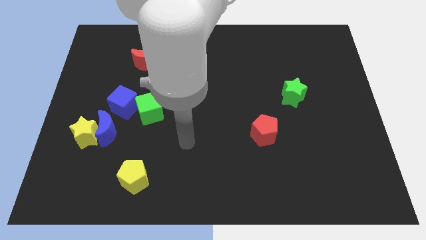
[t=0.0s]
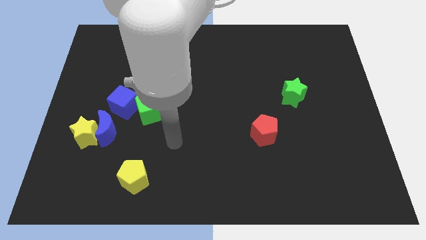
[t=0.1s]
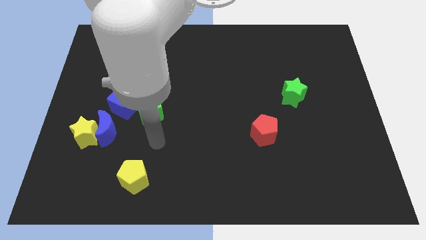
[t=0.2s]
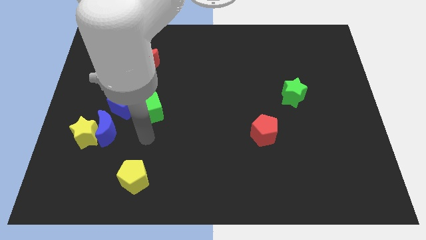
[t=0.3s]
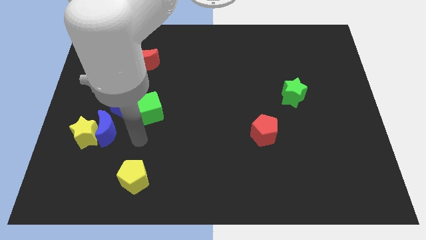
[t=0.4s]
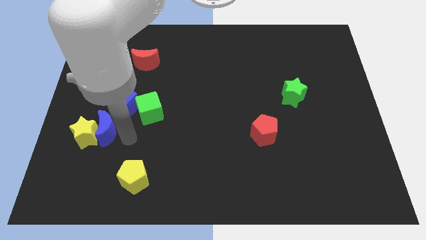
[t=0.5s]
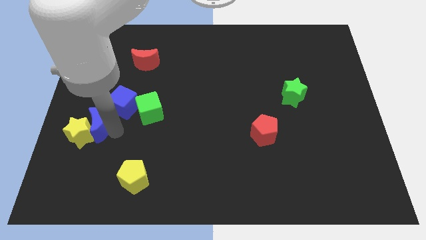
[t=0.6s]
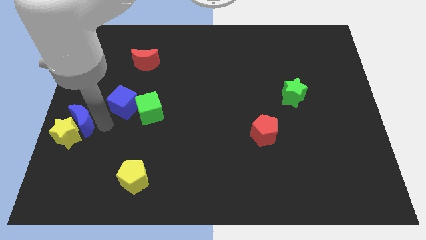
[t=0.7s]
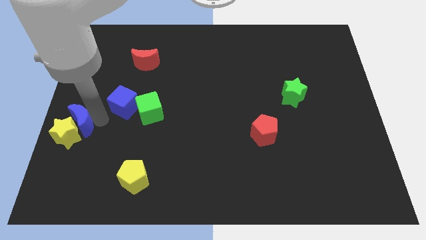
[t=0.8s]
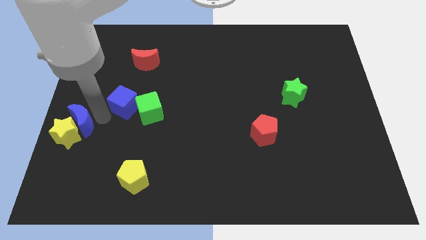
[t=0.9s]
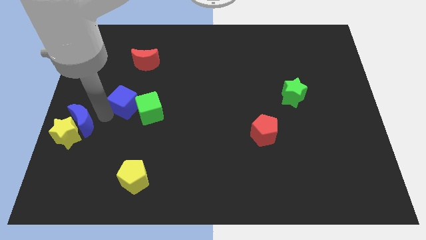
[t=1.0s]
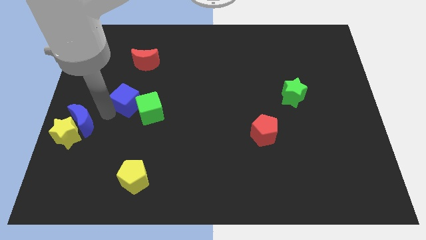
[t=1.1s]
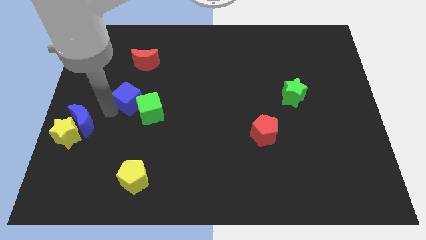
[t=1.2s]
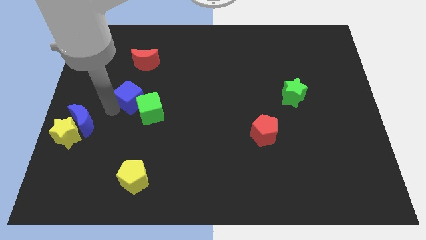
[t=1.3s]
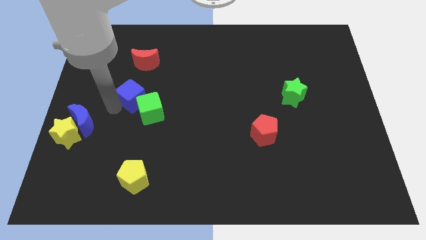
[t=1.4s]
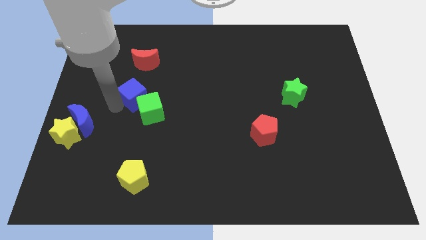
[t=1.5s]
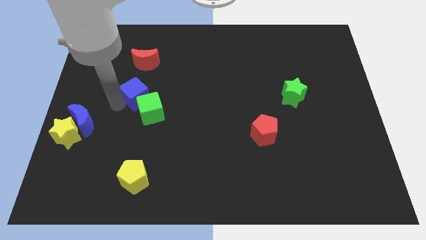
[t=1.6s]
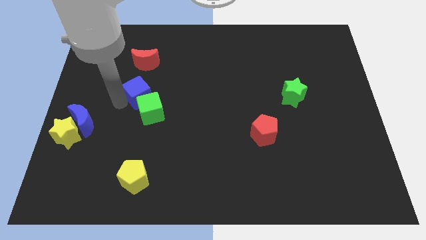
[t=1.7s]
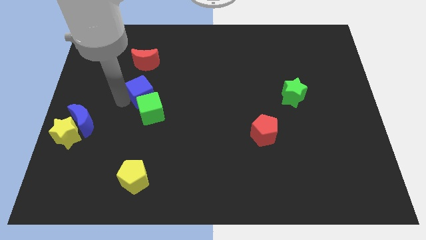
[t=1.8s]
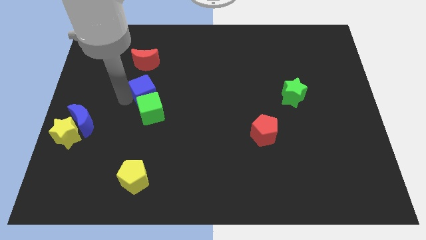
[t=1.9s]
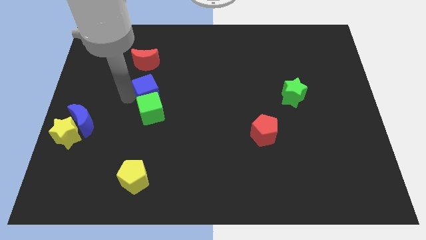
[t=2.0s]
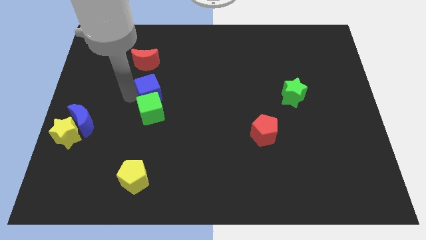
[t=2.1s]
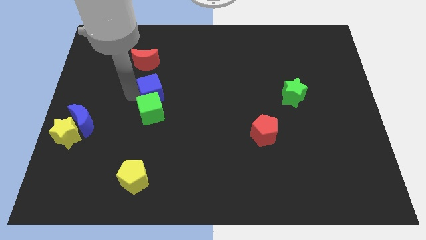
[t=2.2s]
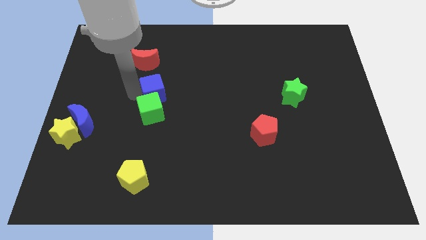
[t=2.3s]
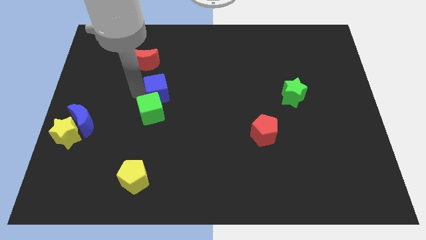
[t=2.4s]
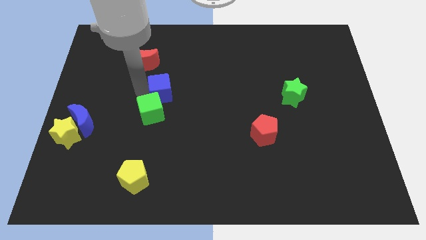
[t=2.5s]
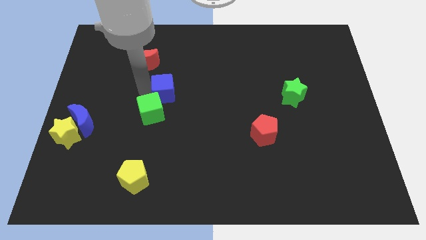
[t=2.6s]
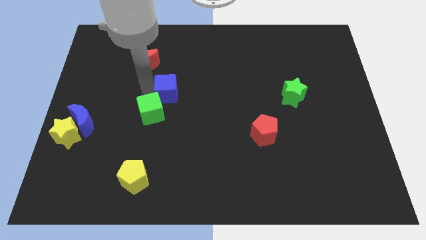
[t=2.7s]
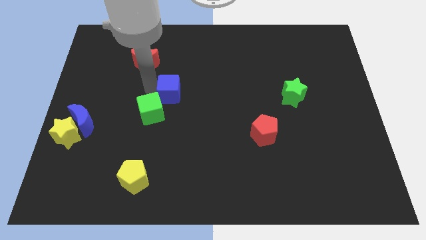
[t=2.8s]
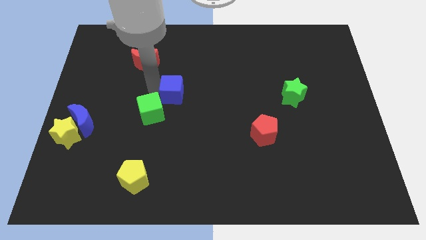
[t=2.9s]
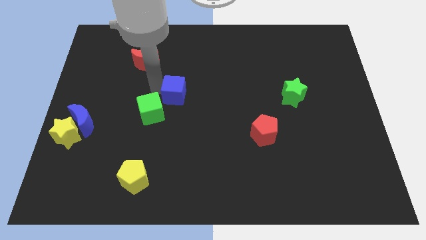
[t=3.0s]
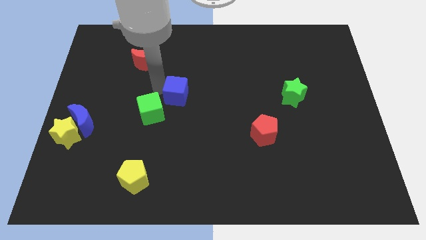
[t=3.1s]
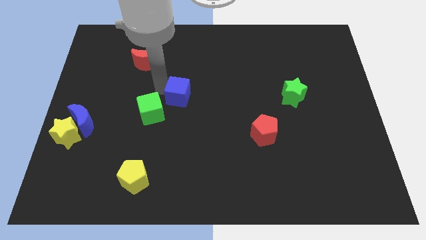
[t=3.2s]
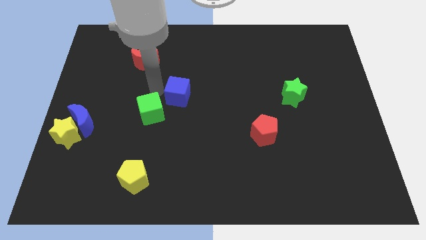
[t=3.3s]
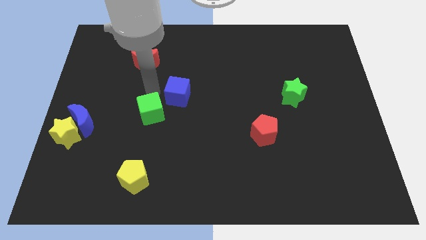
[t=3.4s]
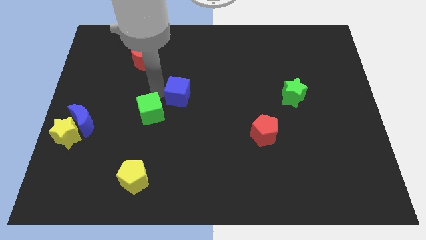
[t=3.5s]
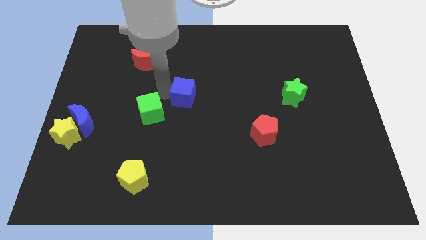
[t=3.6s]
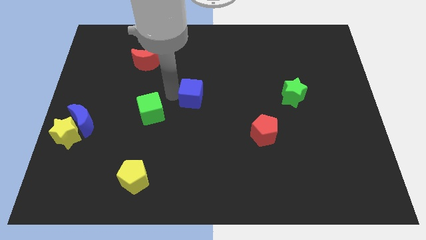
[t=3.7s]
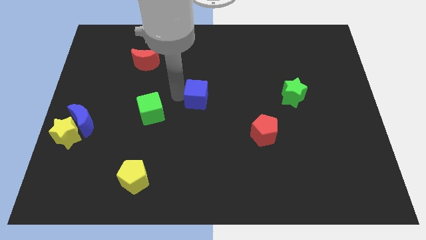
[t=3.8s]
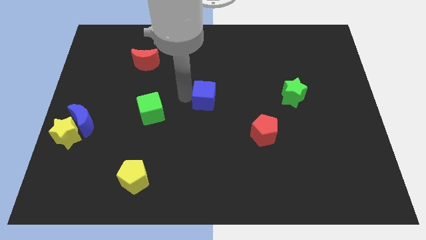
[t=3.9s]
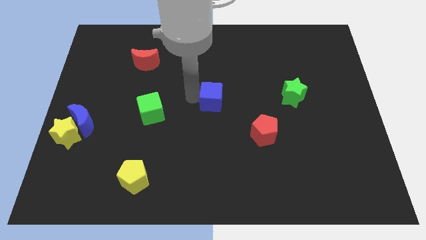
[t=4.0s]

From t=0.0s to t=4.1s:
move the blue cube right

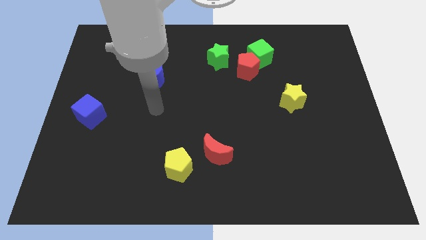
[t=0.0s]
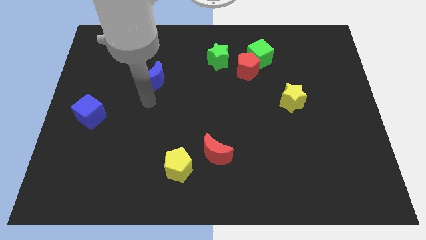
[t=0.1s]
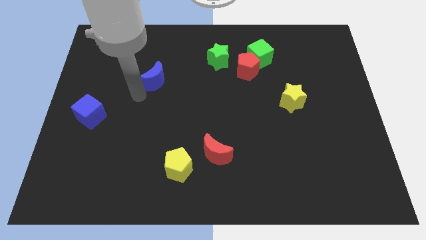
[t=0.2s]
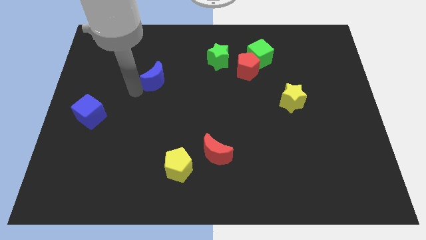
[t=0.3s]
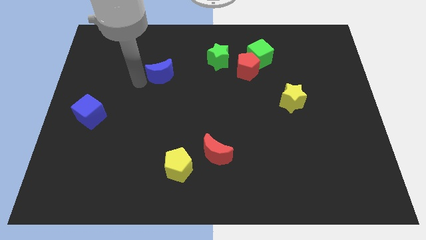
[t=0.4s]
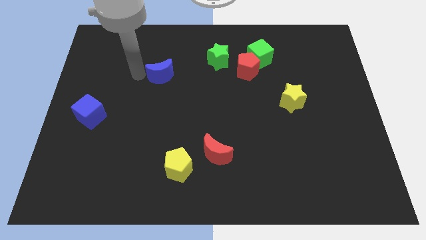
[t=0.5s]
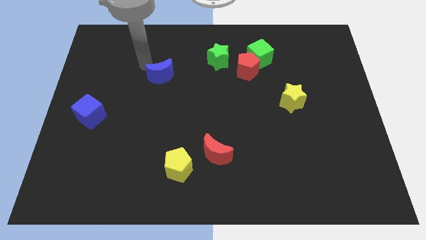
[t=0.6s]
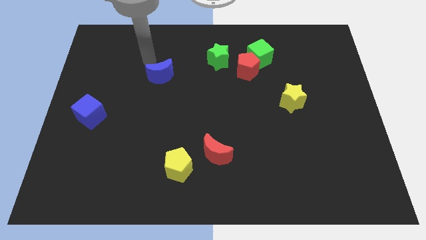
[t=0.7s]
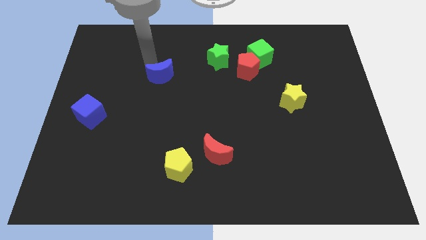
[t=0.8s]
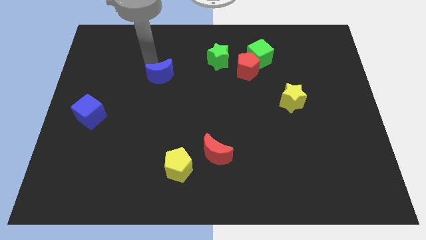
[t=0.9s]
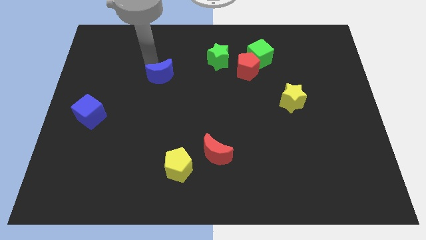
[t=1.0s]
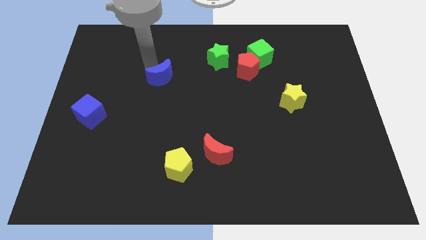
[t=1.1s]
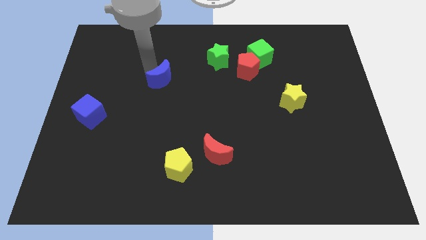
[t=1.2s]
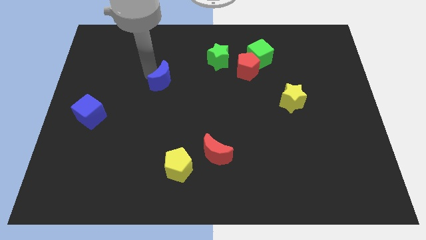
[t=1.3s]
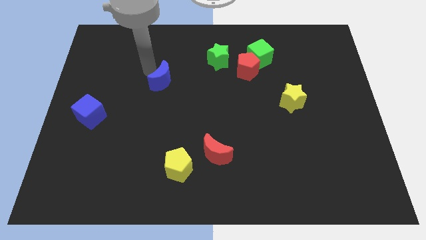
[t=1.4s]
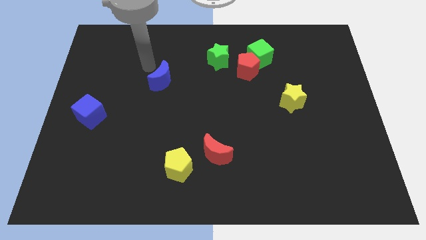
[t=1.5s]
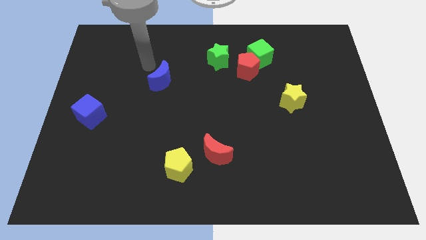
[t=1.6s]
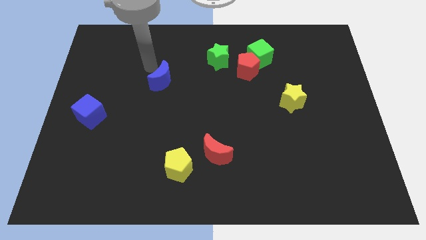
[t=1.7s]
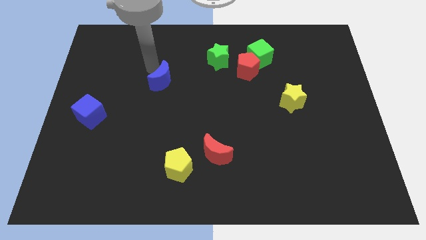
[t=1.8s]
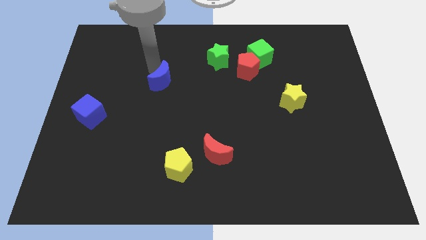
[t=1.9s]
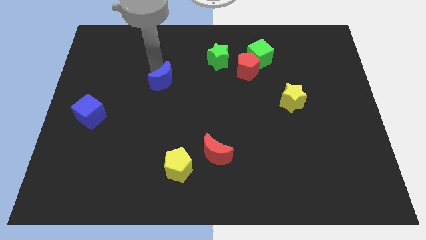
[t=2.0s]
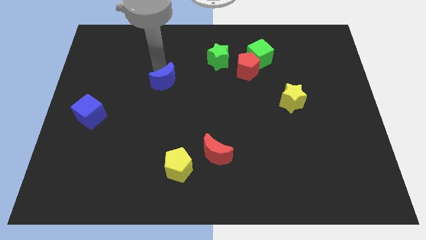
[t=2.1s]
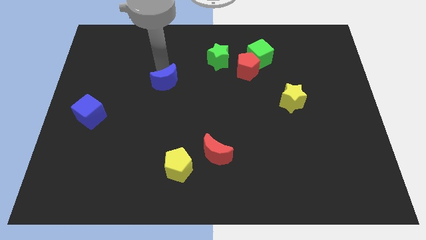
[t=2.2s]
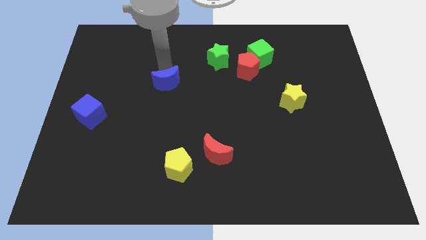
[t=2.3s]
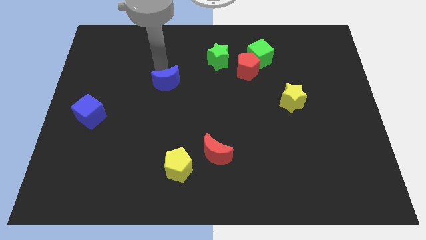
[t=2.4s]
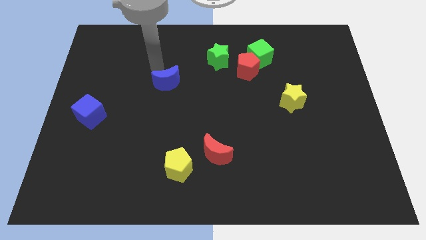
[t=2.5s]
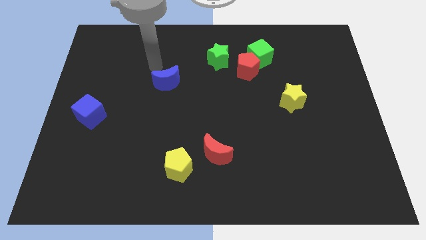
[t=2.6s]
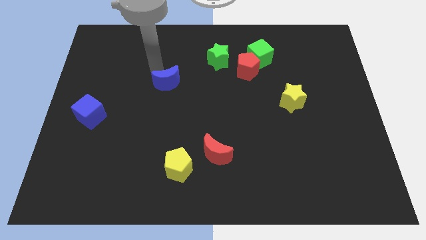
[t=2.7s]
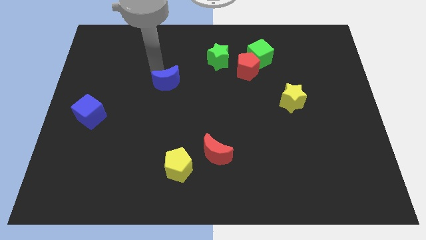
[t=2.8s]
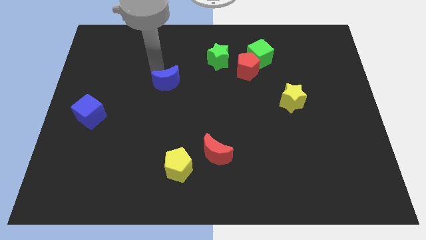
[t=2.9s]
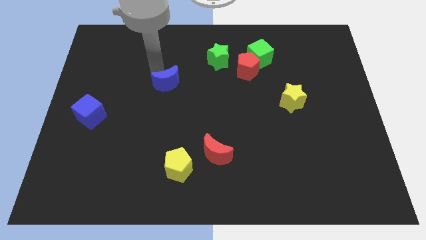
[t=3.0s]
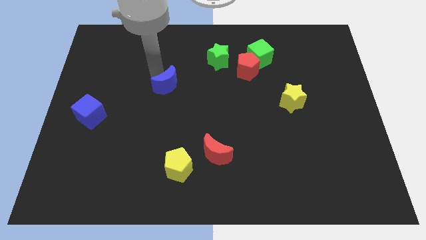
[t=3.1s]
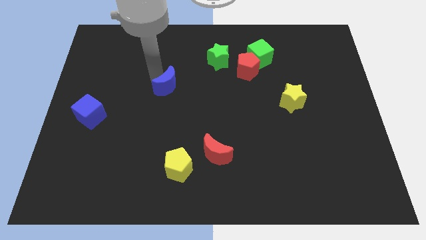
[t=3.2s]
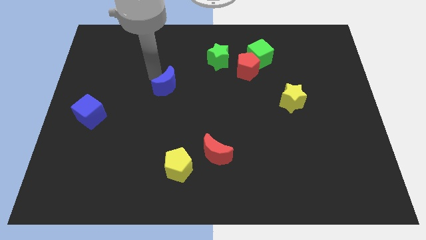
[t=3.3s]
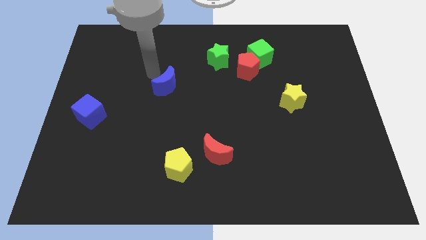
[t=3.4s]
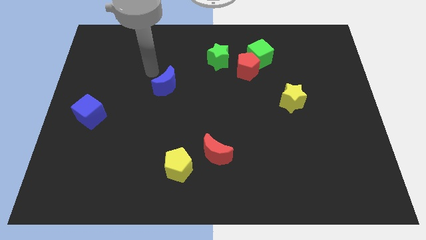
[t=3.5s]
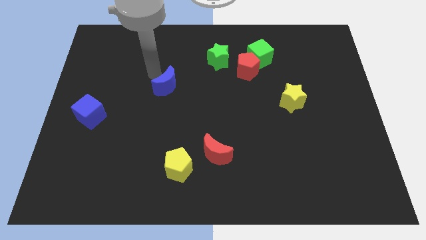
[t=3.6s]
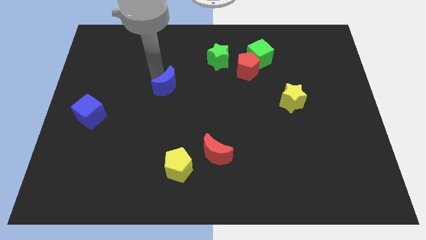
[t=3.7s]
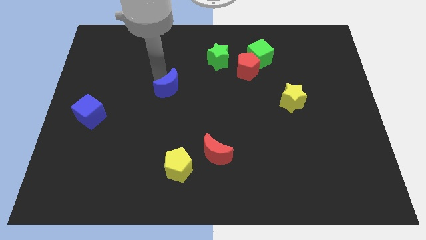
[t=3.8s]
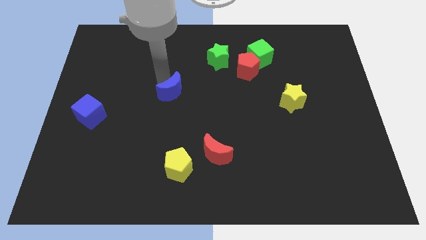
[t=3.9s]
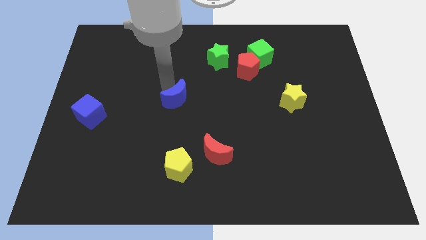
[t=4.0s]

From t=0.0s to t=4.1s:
push the blue moon a little down and right diagonally

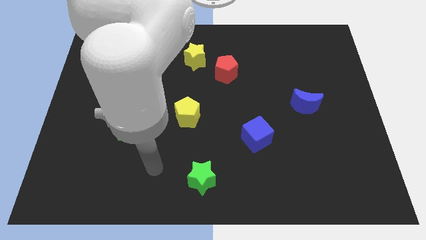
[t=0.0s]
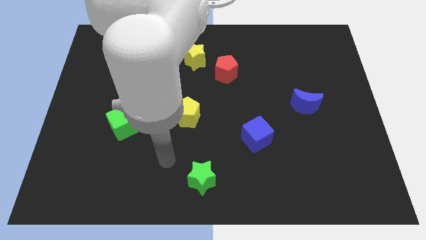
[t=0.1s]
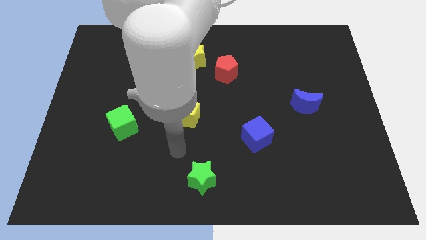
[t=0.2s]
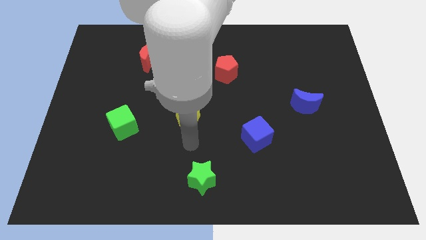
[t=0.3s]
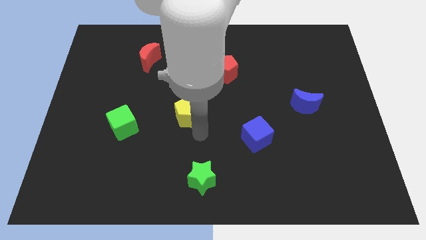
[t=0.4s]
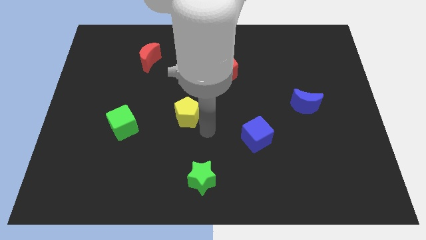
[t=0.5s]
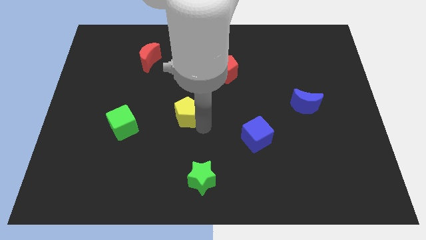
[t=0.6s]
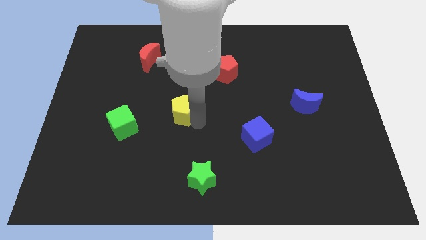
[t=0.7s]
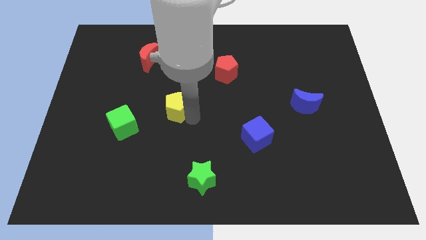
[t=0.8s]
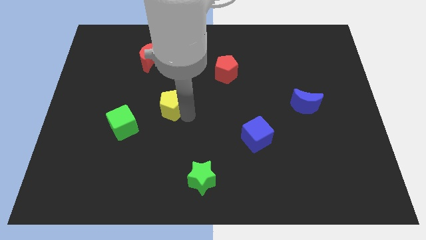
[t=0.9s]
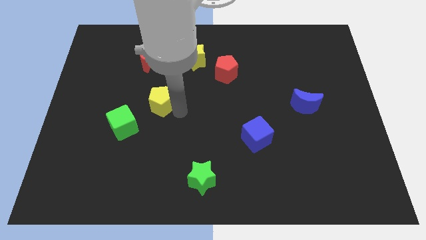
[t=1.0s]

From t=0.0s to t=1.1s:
slightly slide the yellow pentagon upwards and then to the left
